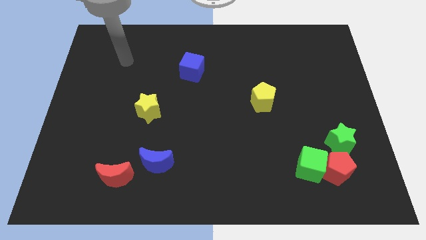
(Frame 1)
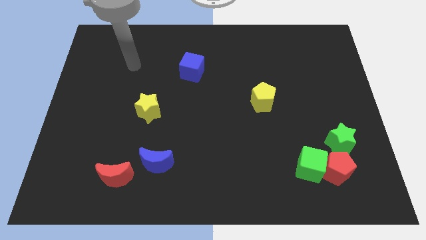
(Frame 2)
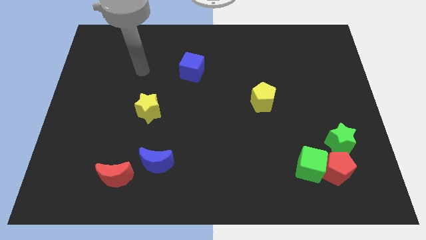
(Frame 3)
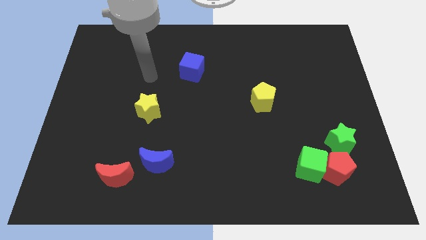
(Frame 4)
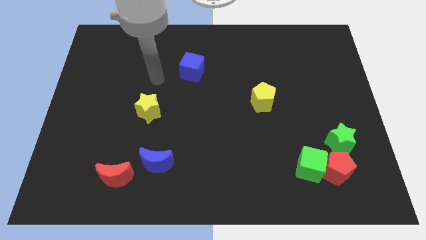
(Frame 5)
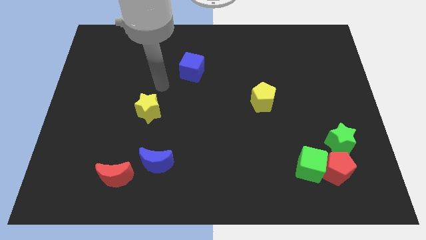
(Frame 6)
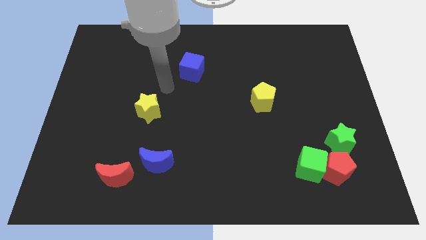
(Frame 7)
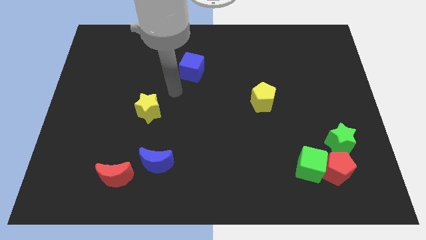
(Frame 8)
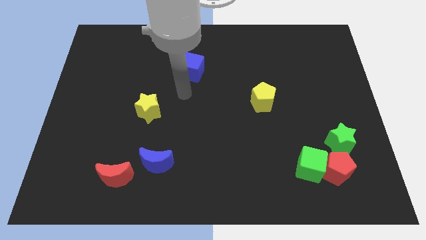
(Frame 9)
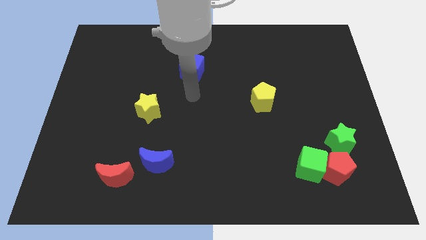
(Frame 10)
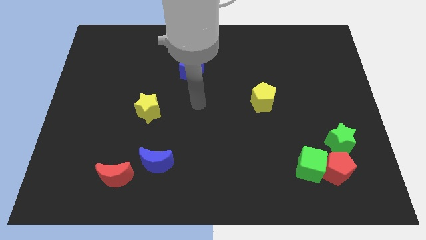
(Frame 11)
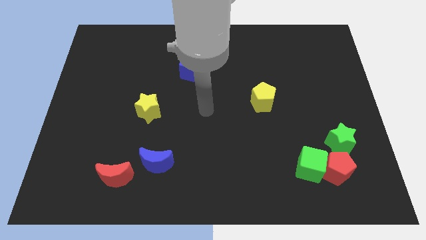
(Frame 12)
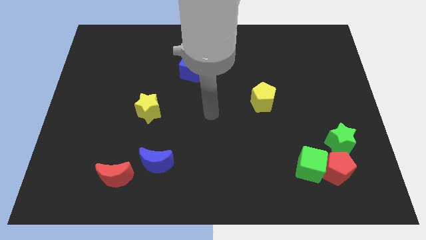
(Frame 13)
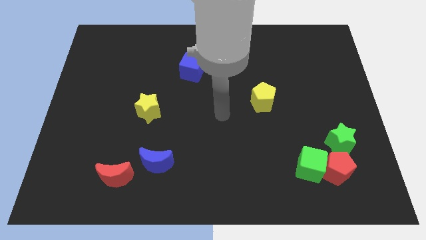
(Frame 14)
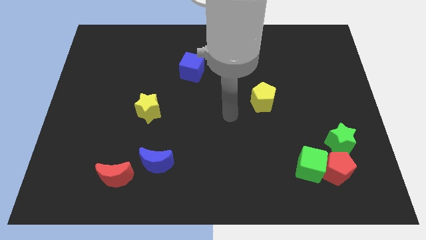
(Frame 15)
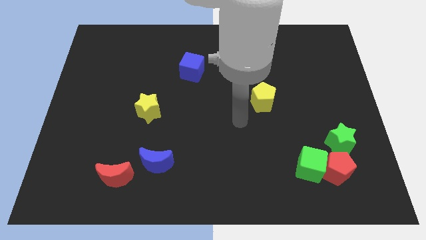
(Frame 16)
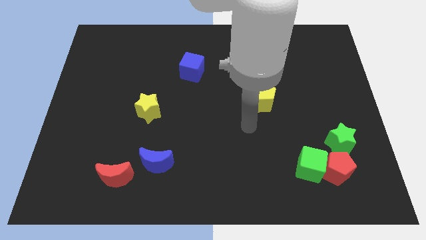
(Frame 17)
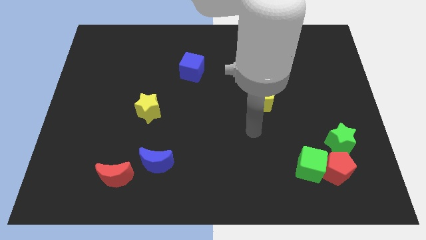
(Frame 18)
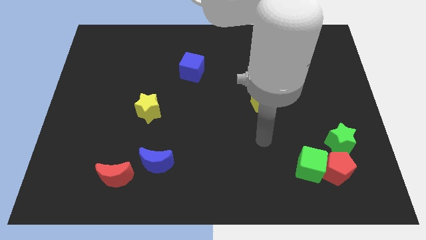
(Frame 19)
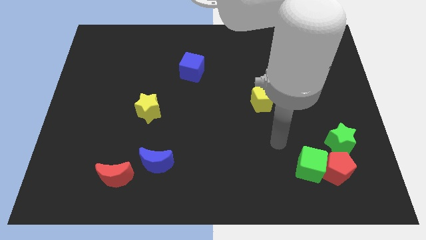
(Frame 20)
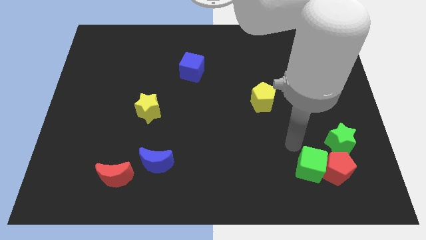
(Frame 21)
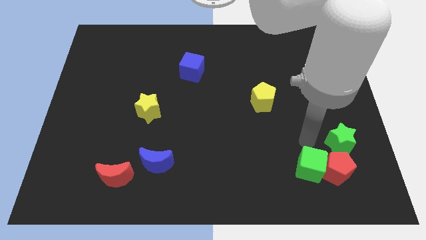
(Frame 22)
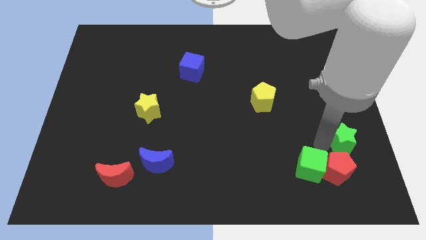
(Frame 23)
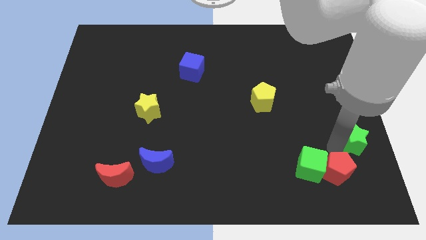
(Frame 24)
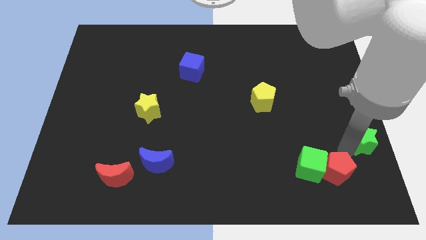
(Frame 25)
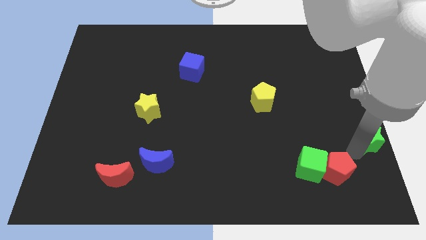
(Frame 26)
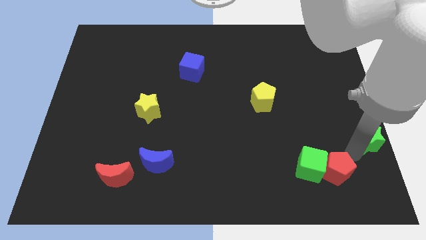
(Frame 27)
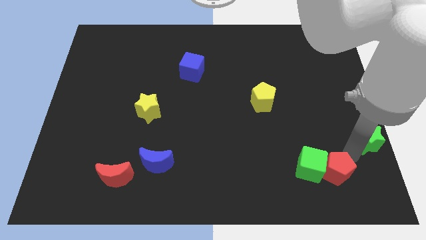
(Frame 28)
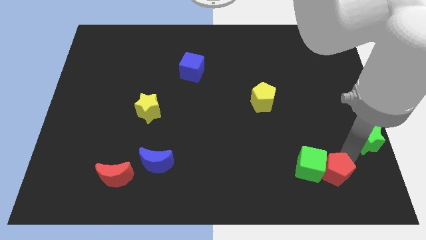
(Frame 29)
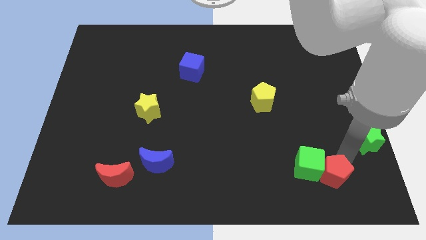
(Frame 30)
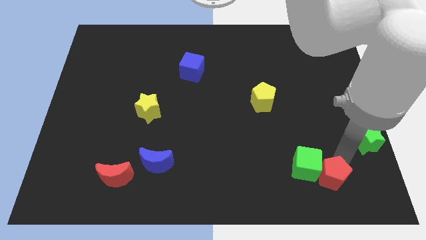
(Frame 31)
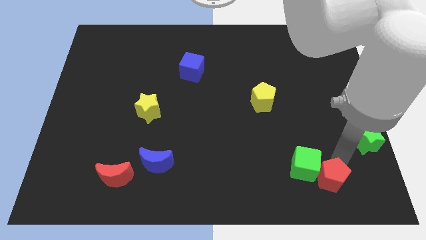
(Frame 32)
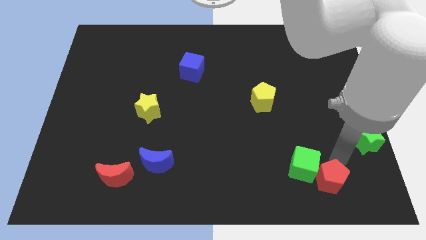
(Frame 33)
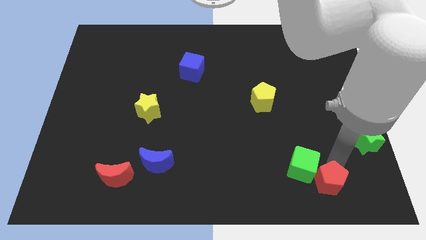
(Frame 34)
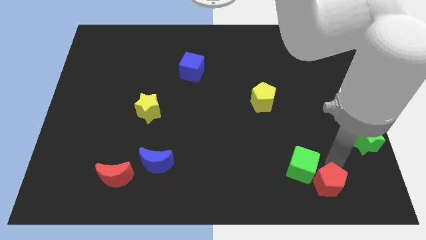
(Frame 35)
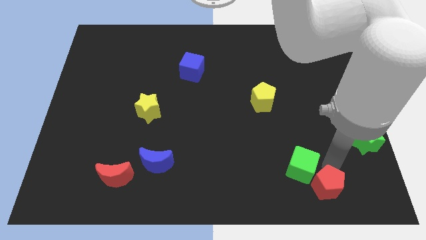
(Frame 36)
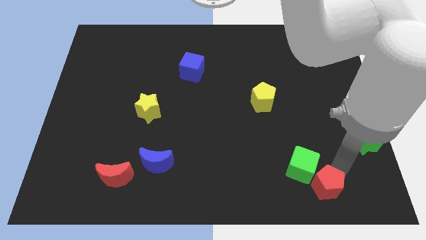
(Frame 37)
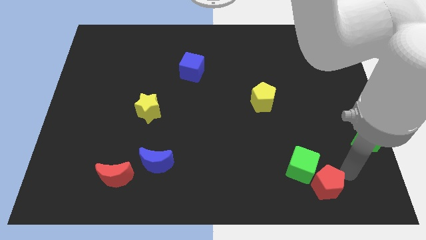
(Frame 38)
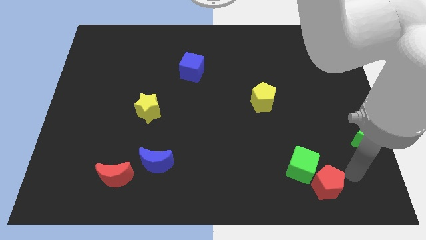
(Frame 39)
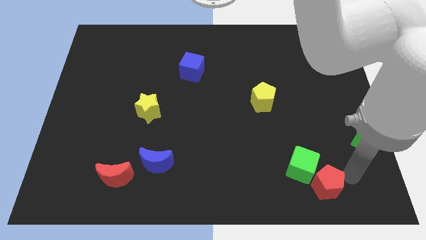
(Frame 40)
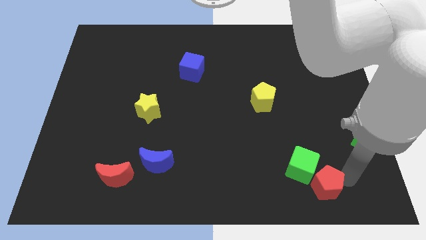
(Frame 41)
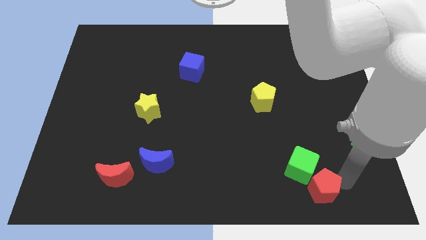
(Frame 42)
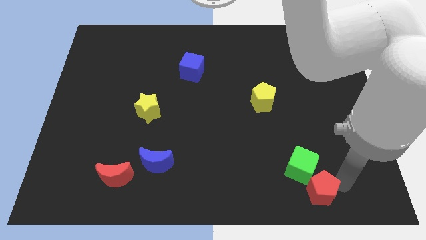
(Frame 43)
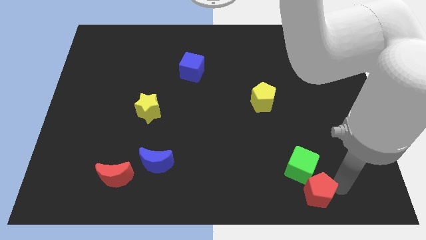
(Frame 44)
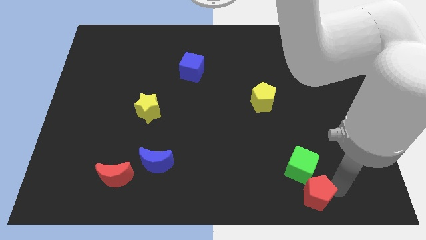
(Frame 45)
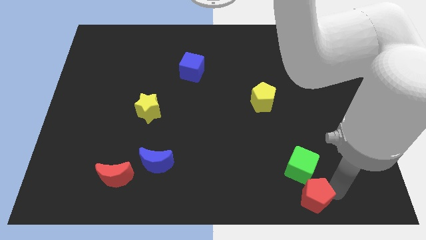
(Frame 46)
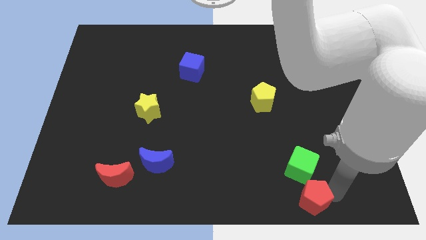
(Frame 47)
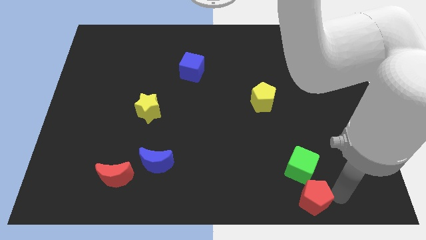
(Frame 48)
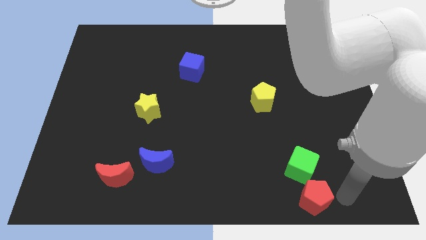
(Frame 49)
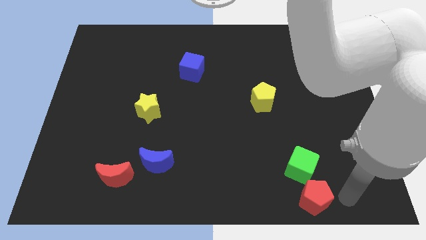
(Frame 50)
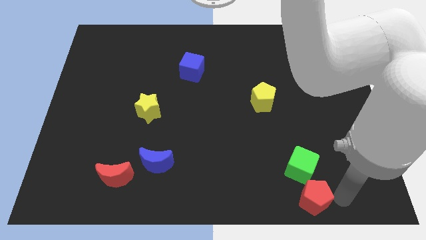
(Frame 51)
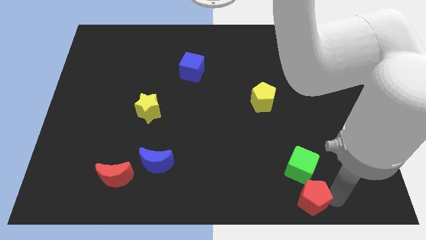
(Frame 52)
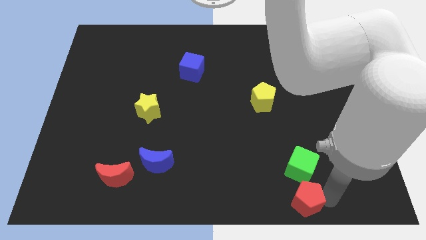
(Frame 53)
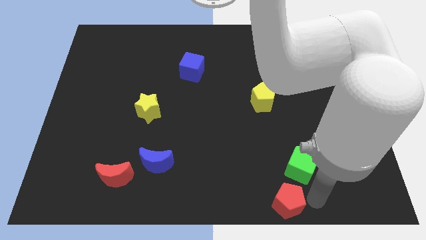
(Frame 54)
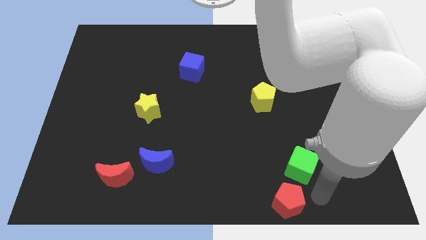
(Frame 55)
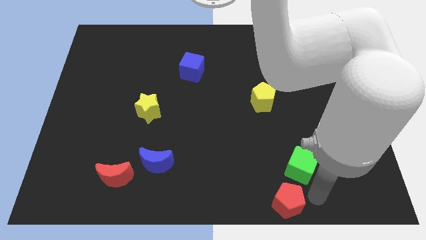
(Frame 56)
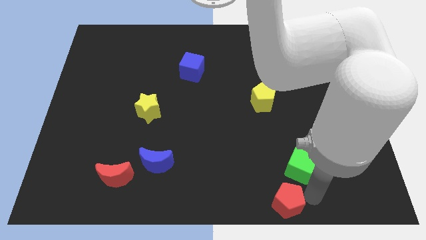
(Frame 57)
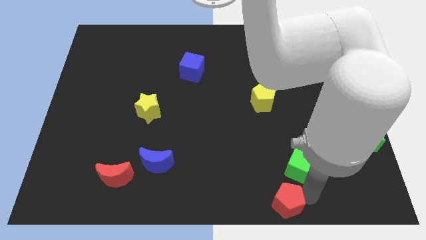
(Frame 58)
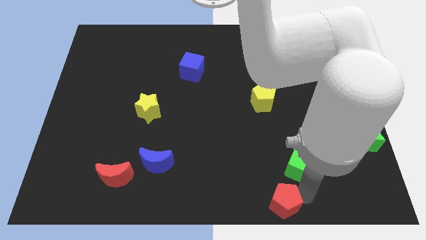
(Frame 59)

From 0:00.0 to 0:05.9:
push the red pentagon to the bottom
